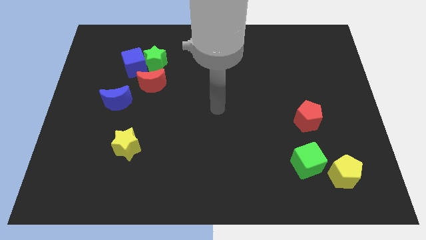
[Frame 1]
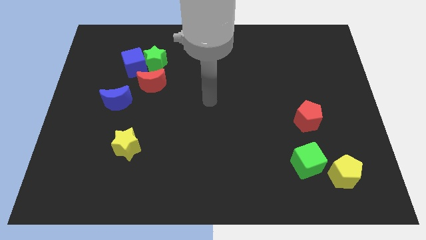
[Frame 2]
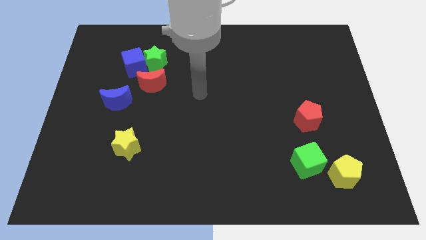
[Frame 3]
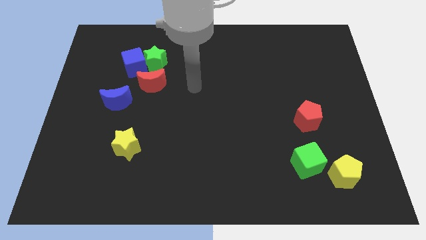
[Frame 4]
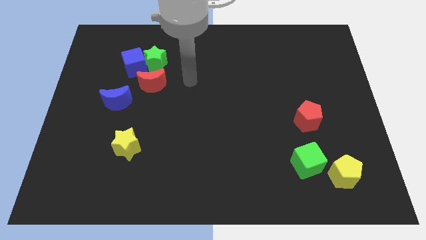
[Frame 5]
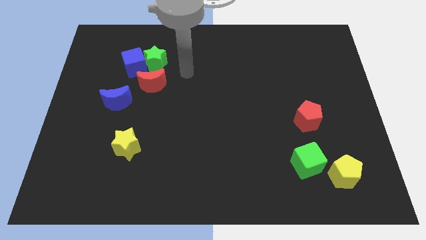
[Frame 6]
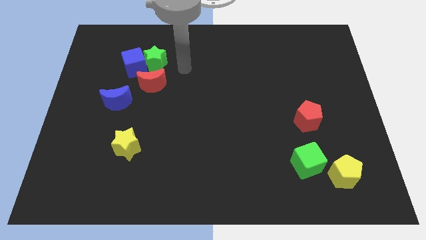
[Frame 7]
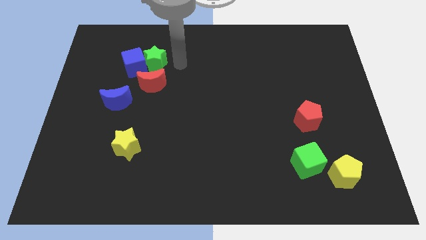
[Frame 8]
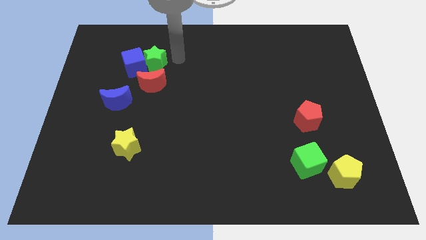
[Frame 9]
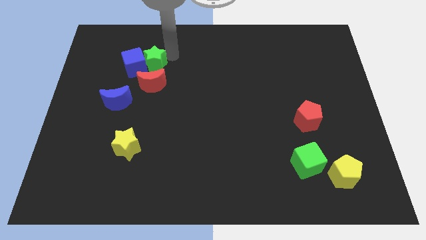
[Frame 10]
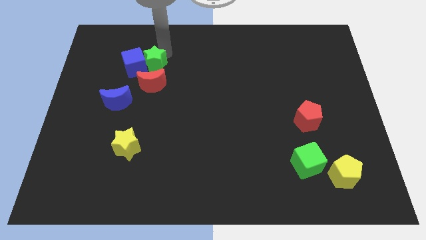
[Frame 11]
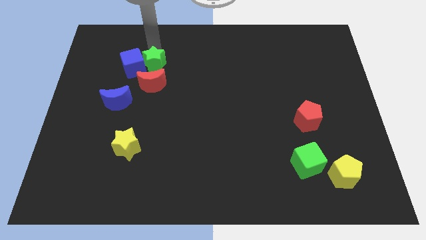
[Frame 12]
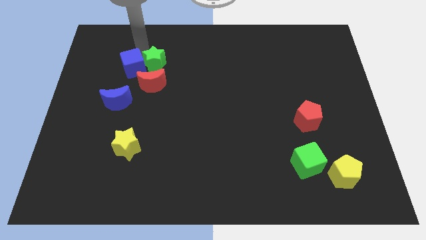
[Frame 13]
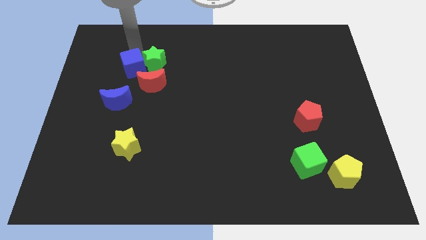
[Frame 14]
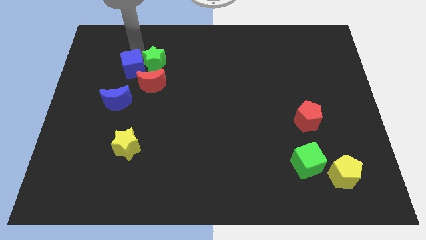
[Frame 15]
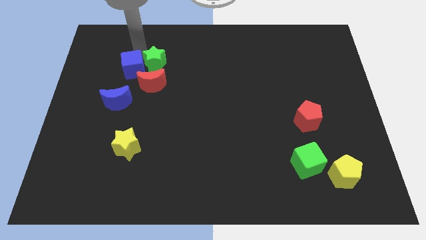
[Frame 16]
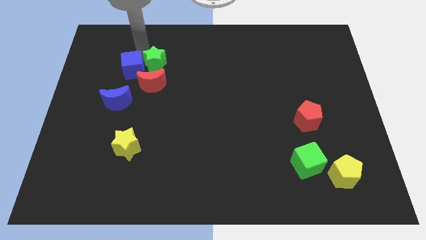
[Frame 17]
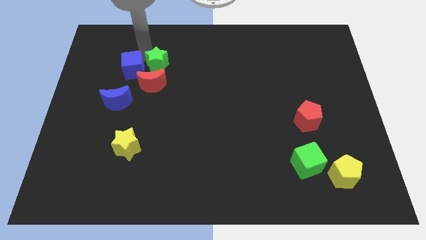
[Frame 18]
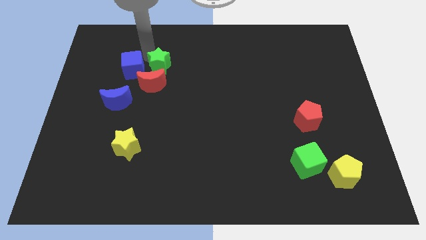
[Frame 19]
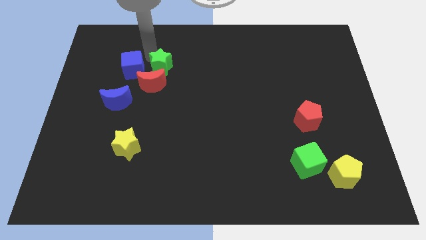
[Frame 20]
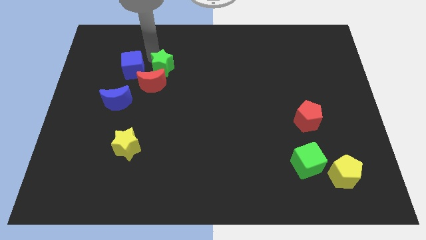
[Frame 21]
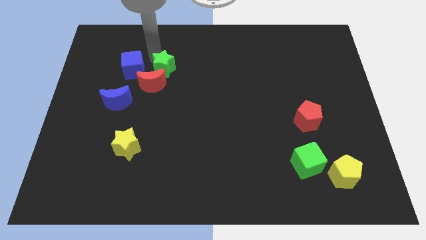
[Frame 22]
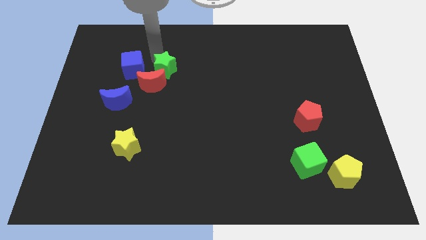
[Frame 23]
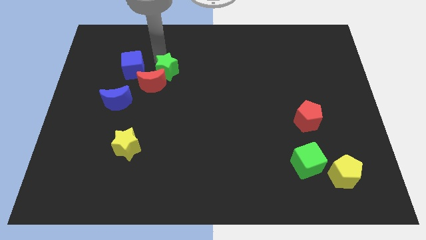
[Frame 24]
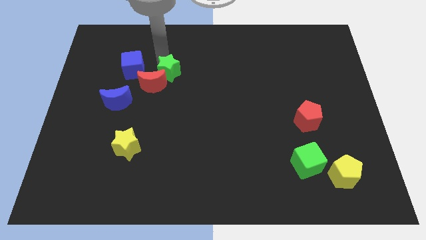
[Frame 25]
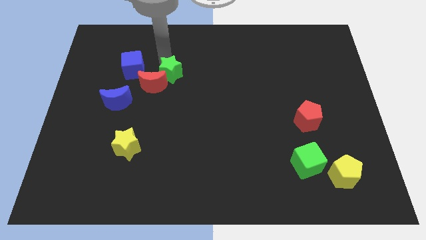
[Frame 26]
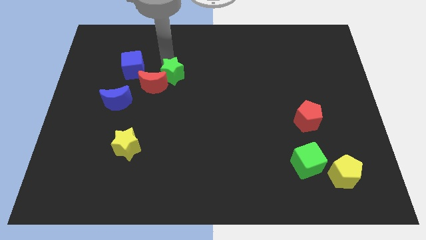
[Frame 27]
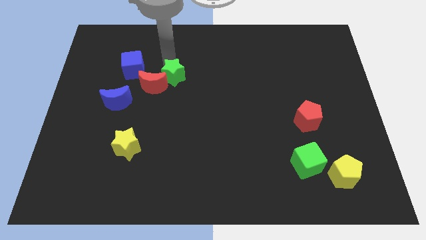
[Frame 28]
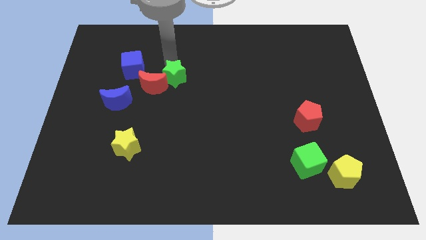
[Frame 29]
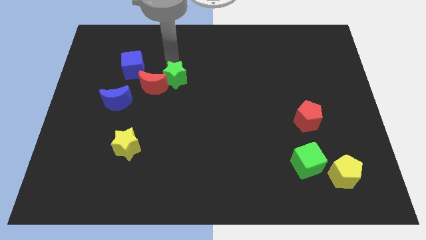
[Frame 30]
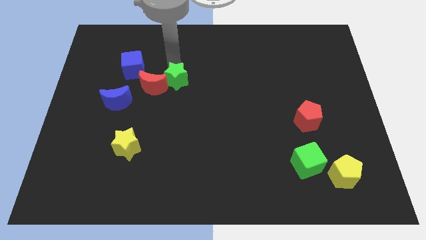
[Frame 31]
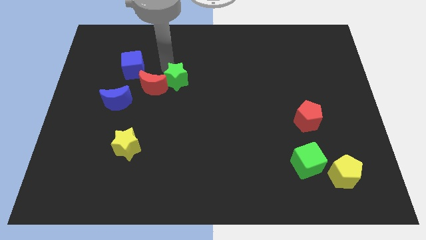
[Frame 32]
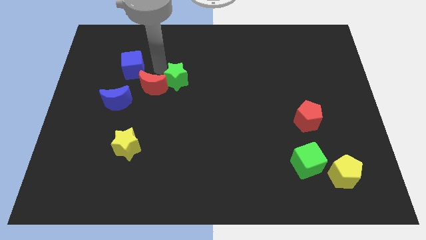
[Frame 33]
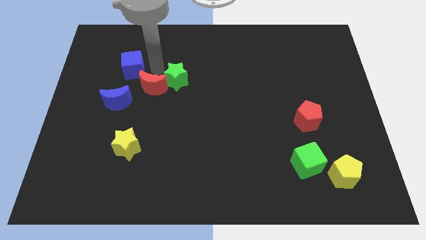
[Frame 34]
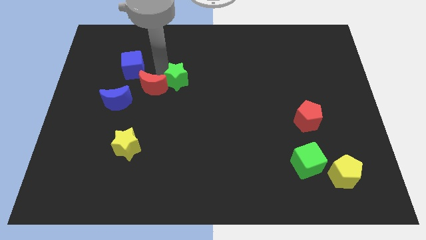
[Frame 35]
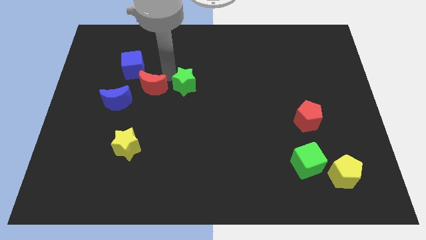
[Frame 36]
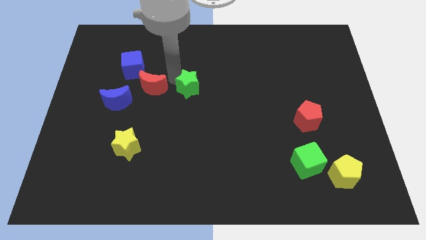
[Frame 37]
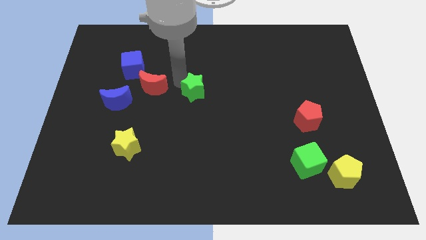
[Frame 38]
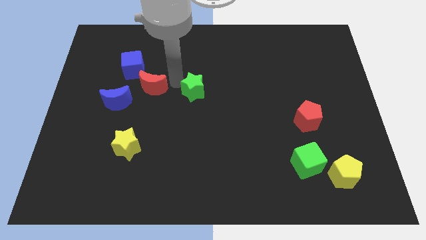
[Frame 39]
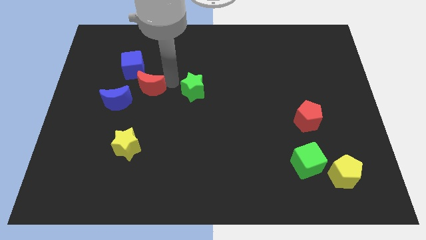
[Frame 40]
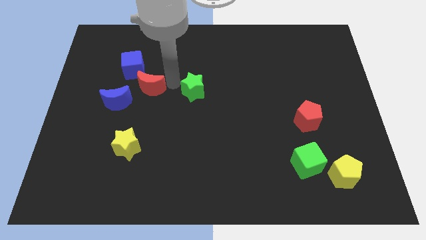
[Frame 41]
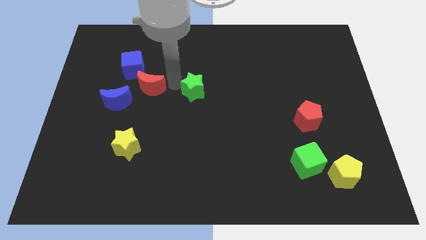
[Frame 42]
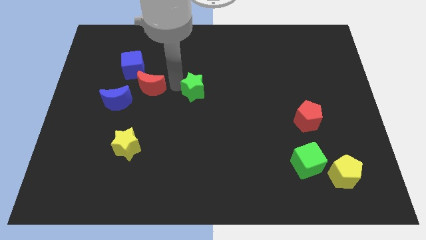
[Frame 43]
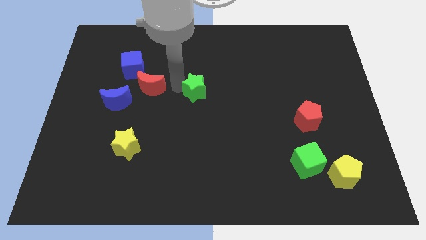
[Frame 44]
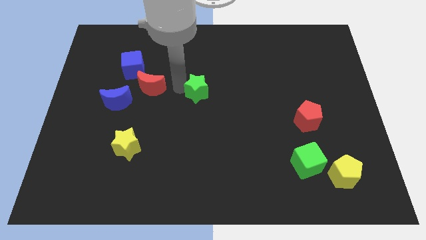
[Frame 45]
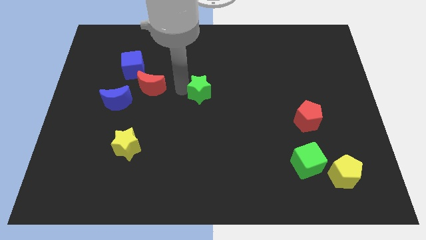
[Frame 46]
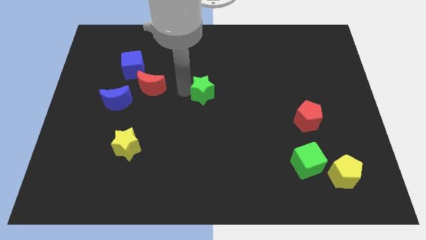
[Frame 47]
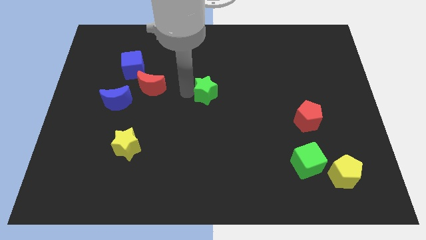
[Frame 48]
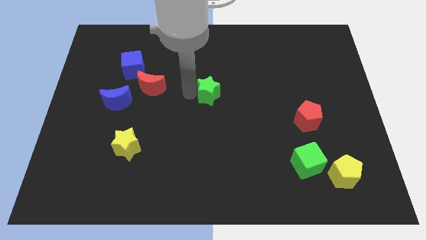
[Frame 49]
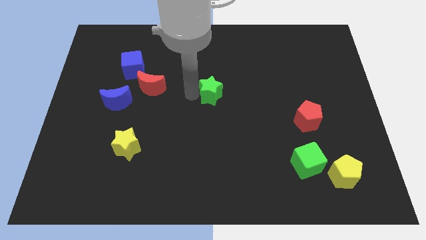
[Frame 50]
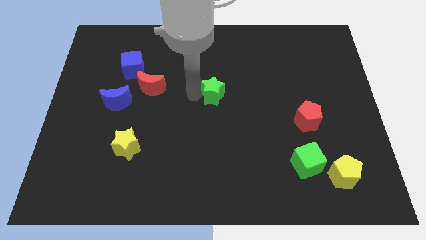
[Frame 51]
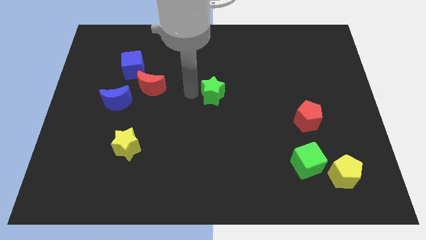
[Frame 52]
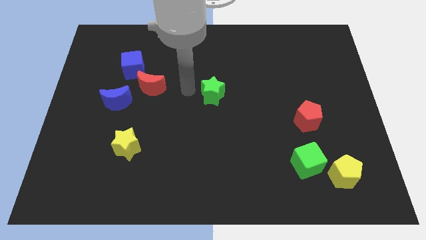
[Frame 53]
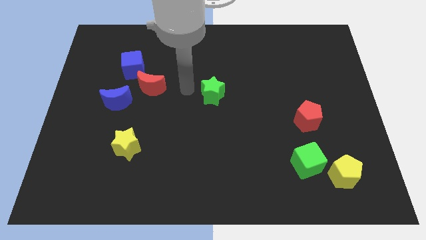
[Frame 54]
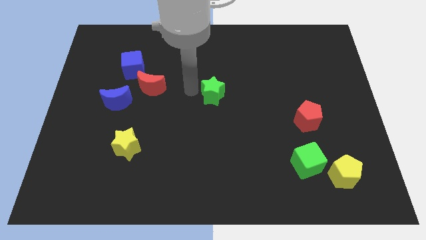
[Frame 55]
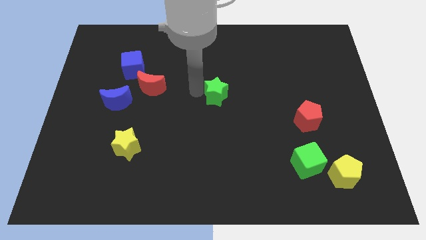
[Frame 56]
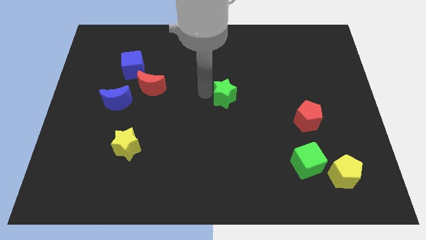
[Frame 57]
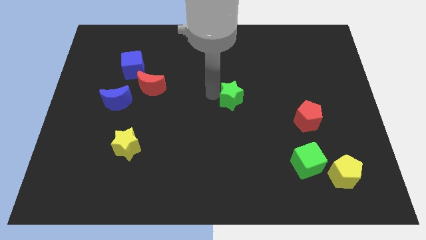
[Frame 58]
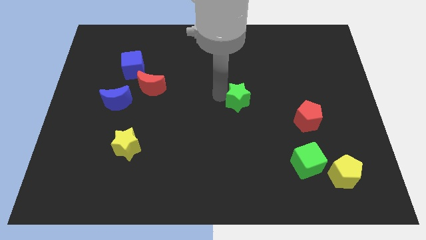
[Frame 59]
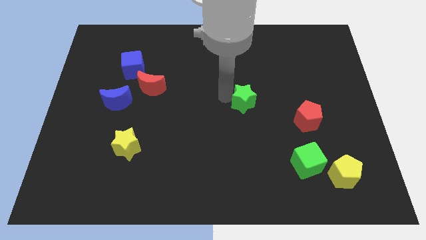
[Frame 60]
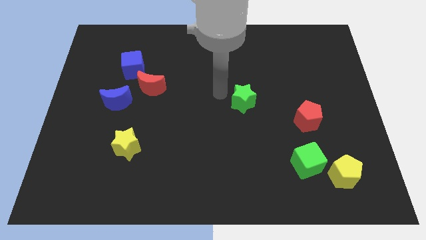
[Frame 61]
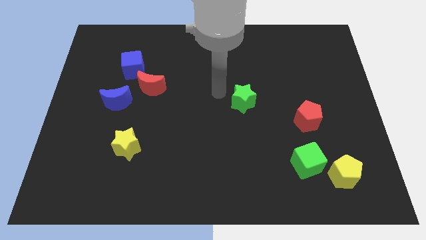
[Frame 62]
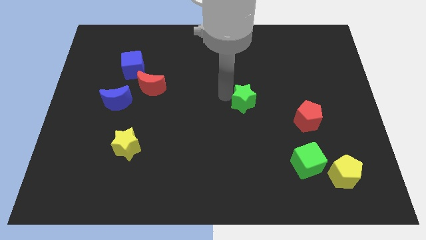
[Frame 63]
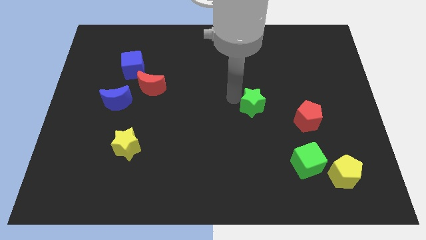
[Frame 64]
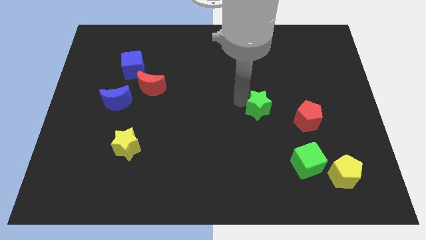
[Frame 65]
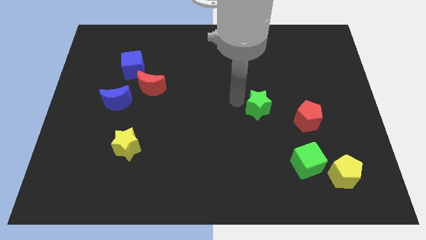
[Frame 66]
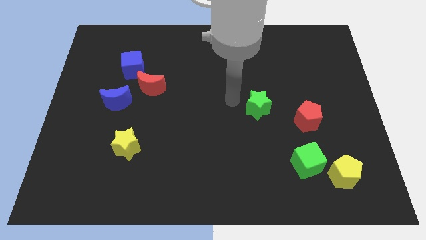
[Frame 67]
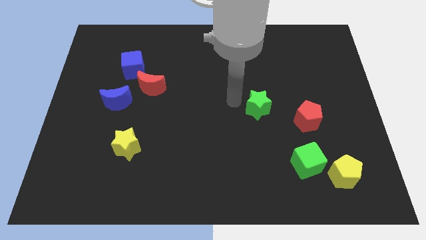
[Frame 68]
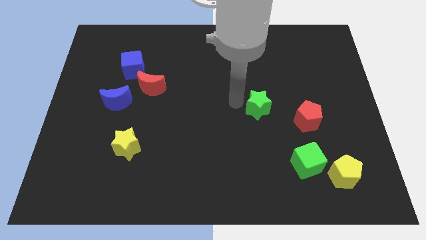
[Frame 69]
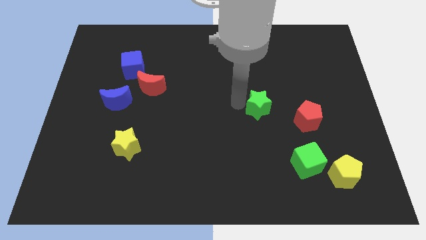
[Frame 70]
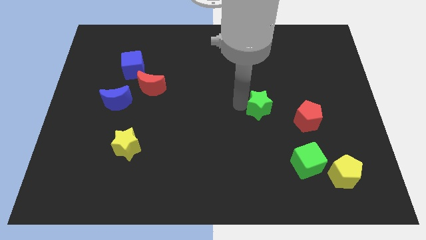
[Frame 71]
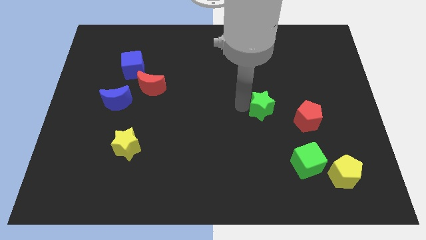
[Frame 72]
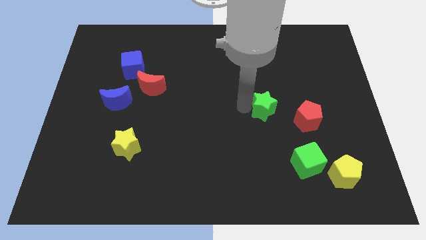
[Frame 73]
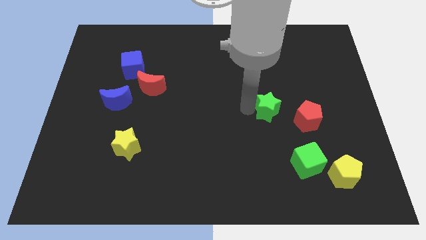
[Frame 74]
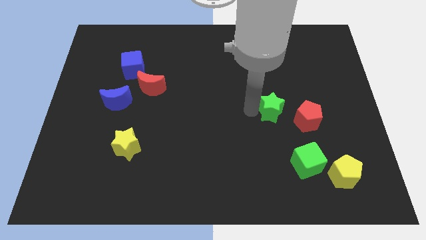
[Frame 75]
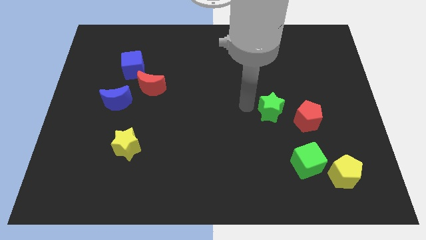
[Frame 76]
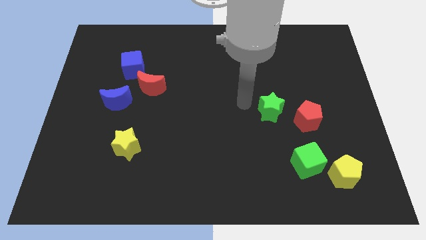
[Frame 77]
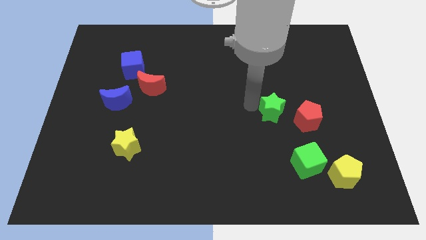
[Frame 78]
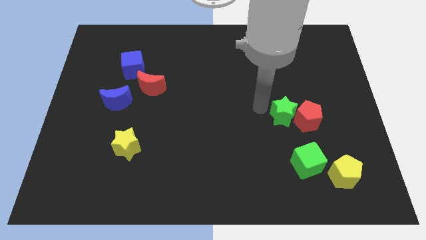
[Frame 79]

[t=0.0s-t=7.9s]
put the green star next to the red pentagon
